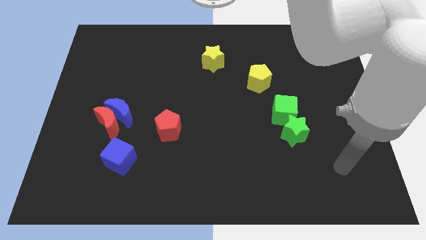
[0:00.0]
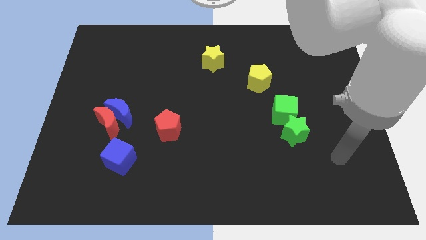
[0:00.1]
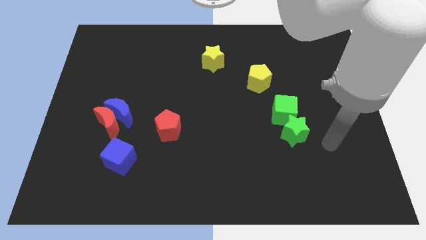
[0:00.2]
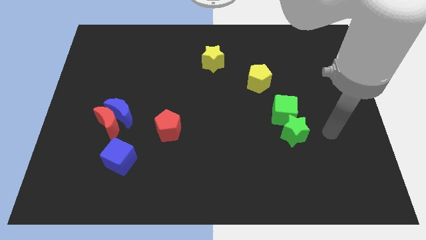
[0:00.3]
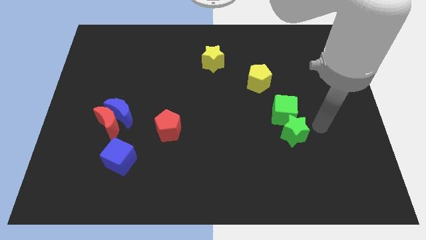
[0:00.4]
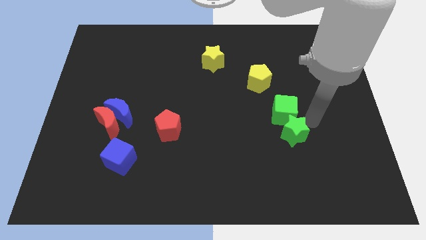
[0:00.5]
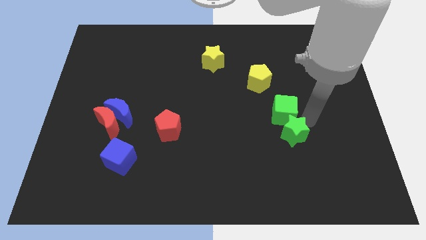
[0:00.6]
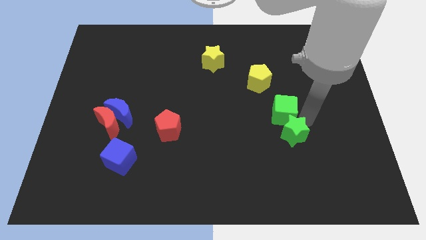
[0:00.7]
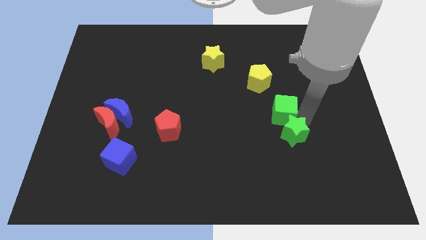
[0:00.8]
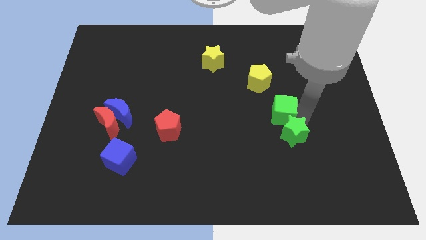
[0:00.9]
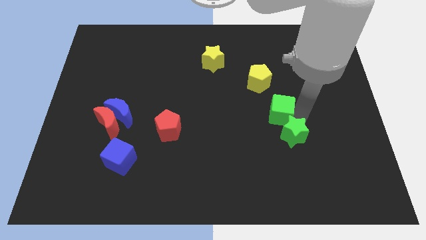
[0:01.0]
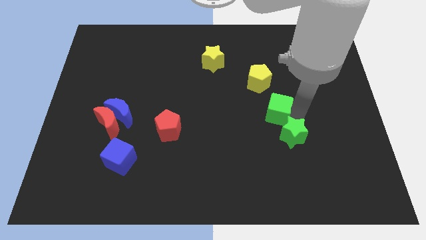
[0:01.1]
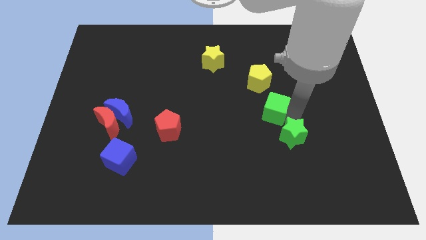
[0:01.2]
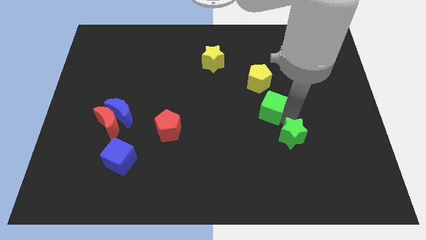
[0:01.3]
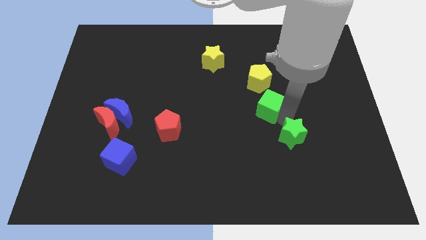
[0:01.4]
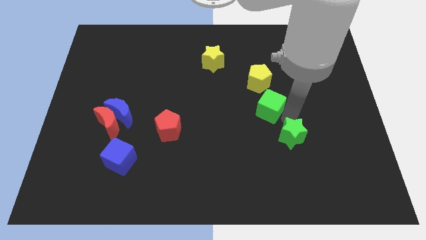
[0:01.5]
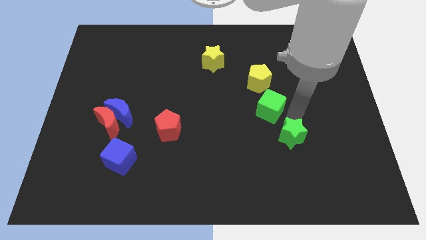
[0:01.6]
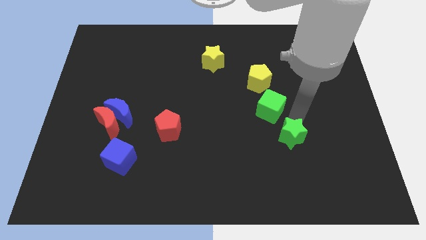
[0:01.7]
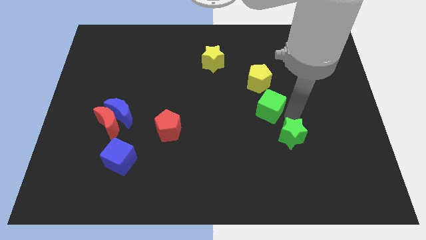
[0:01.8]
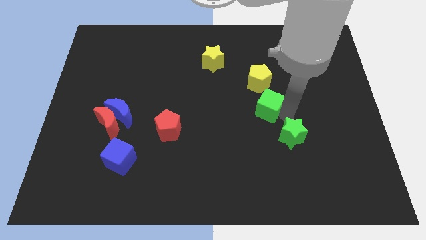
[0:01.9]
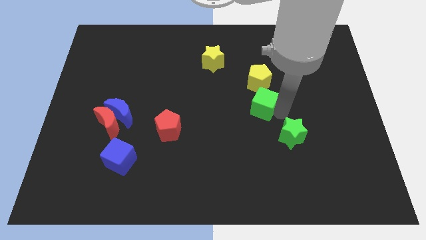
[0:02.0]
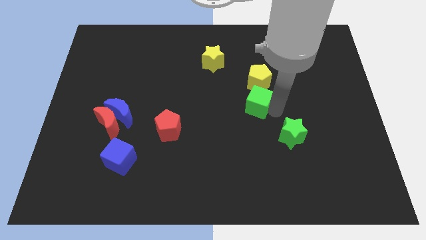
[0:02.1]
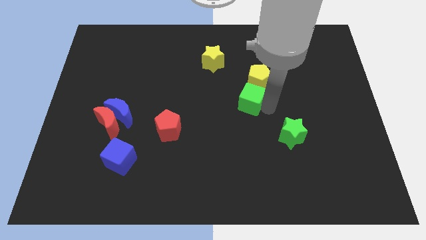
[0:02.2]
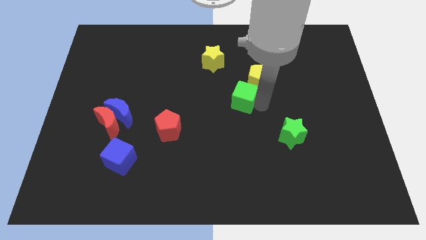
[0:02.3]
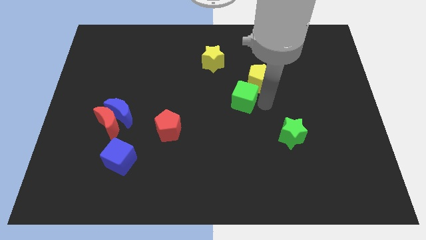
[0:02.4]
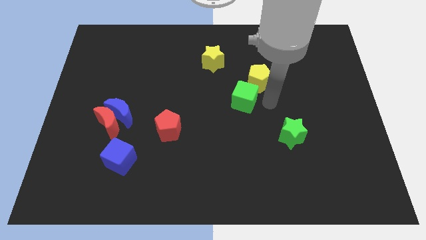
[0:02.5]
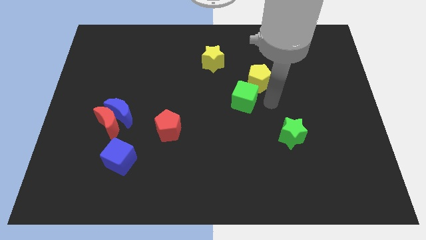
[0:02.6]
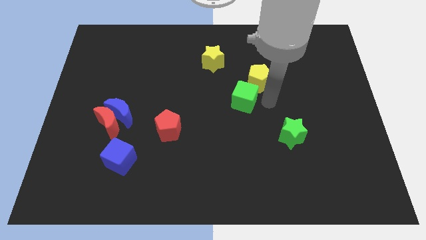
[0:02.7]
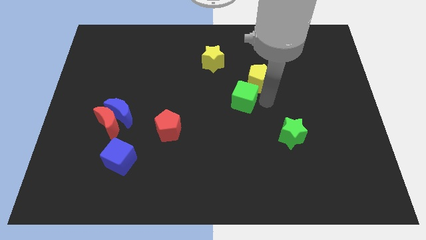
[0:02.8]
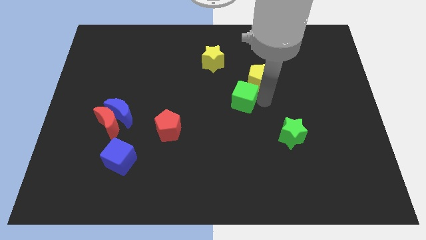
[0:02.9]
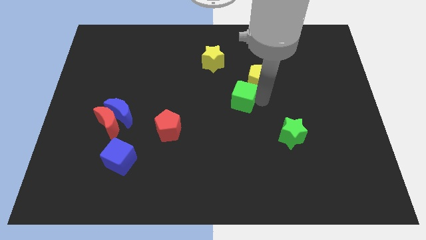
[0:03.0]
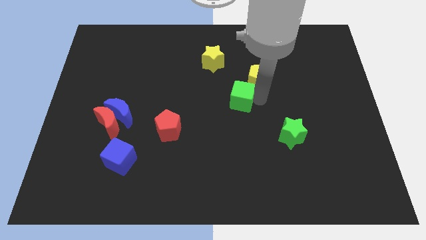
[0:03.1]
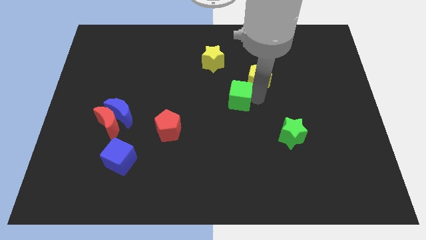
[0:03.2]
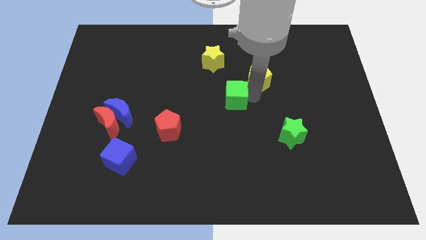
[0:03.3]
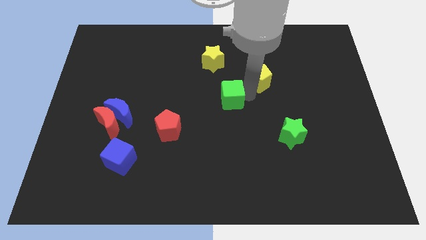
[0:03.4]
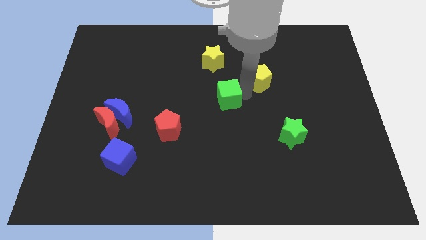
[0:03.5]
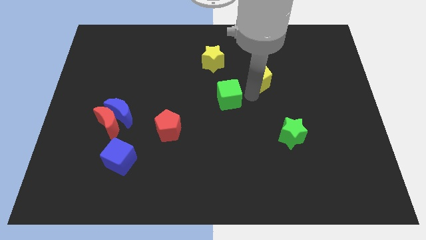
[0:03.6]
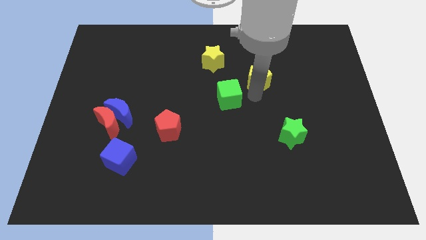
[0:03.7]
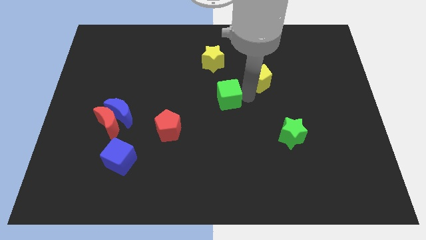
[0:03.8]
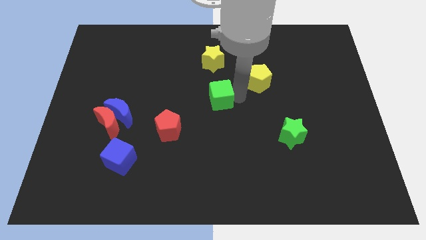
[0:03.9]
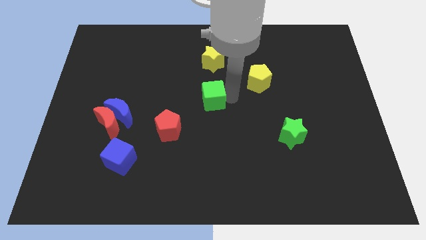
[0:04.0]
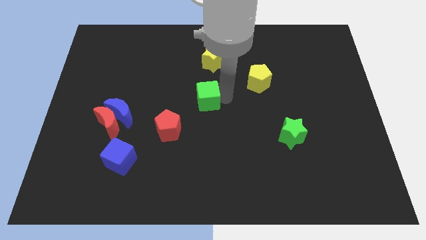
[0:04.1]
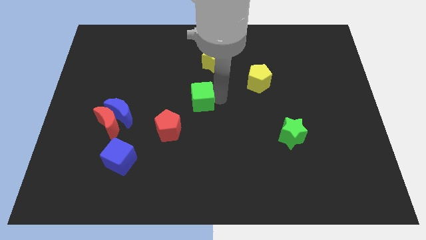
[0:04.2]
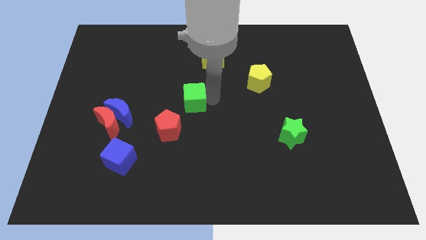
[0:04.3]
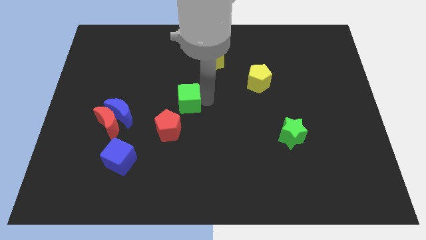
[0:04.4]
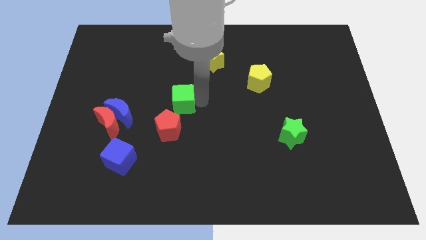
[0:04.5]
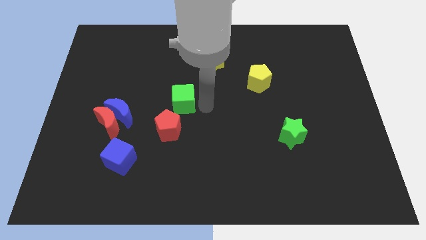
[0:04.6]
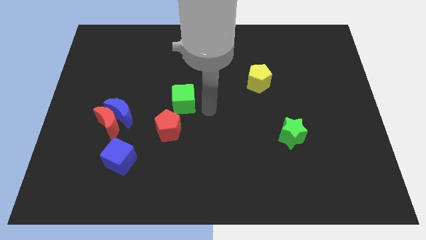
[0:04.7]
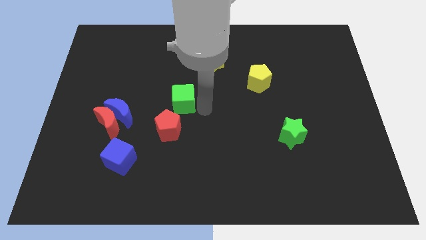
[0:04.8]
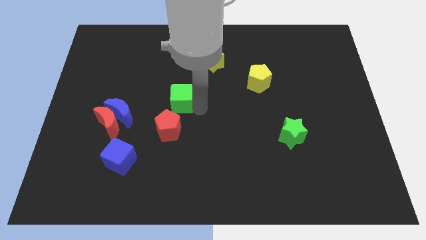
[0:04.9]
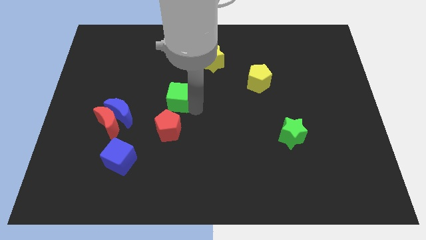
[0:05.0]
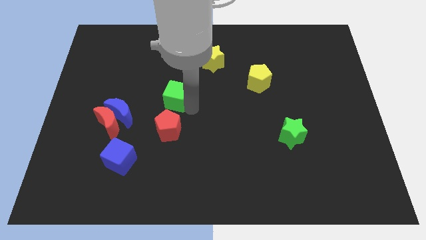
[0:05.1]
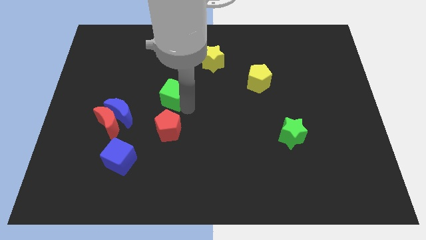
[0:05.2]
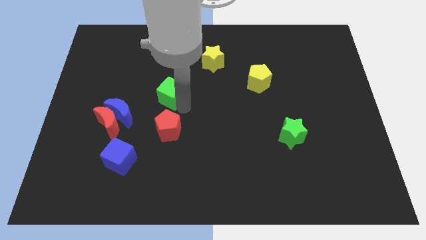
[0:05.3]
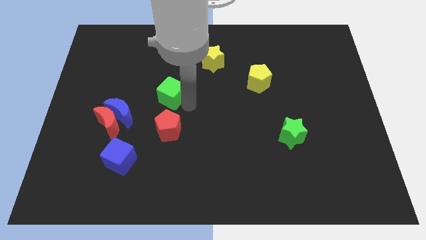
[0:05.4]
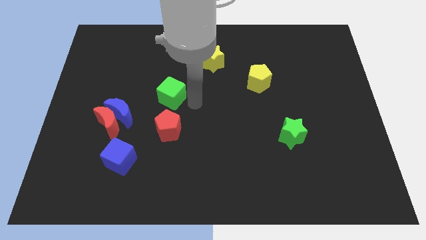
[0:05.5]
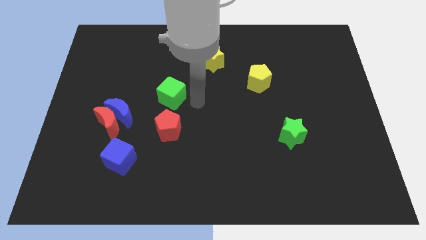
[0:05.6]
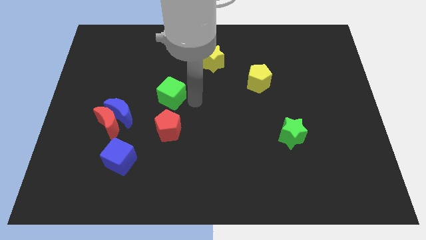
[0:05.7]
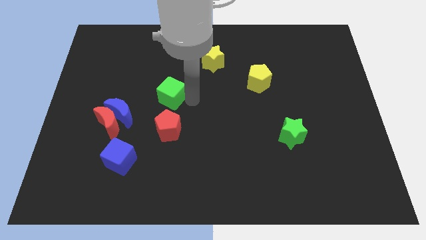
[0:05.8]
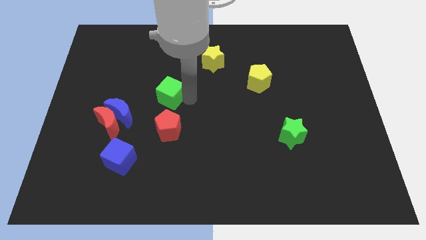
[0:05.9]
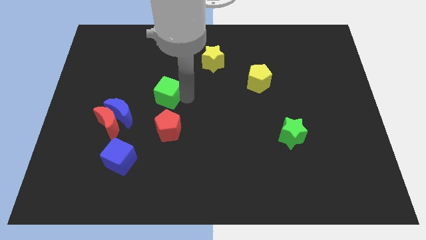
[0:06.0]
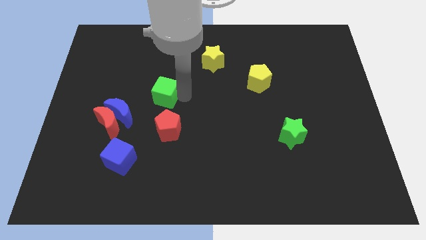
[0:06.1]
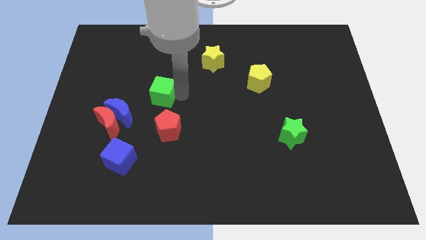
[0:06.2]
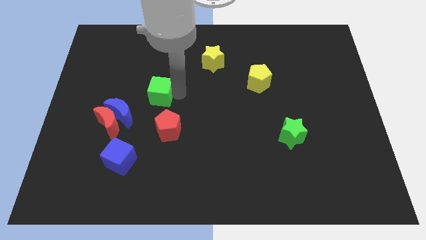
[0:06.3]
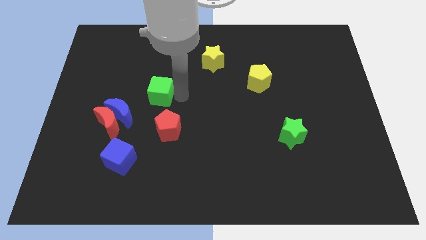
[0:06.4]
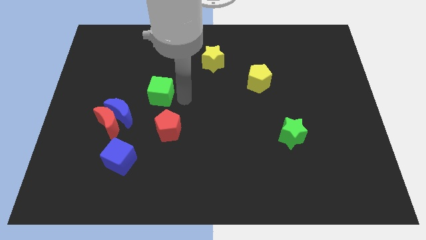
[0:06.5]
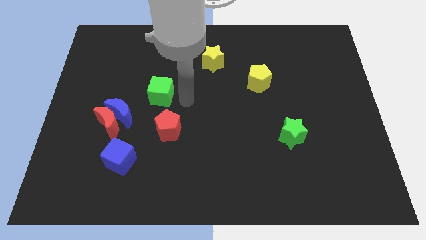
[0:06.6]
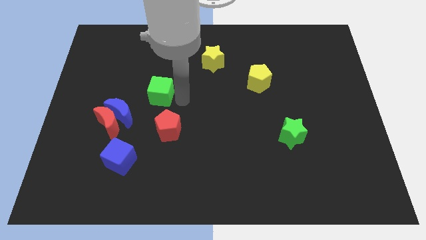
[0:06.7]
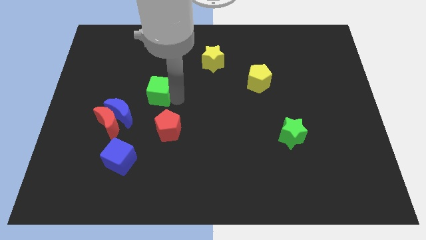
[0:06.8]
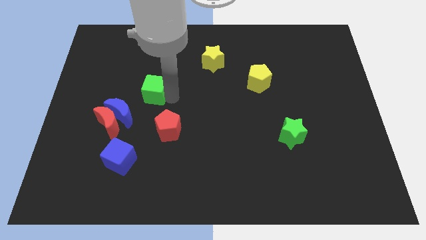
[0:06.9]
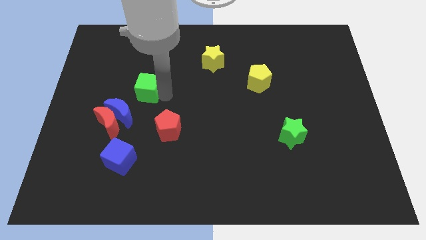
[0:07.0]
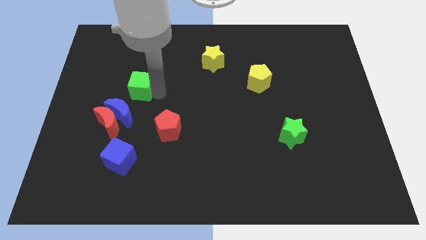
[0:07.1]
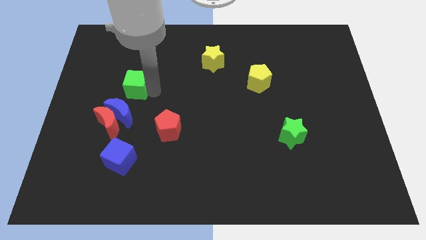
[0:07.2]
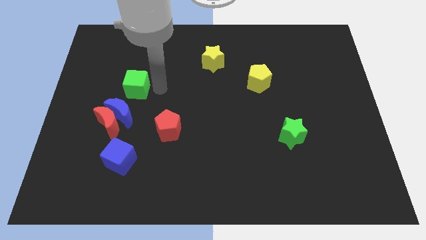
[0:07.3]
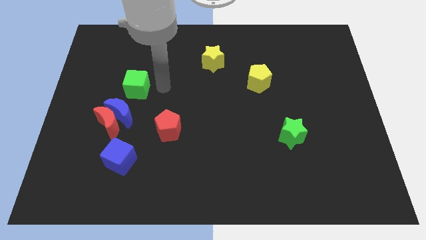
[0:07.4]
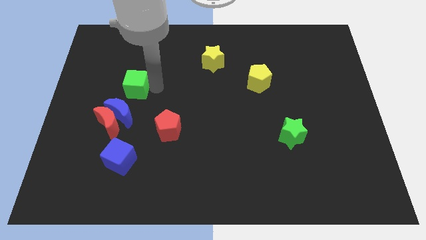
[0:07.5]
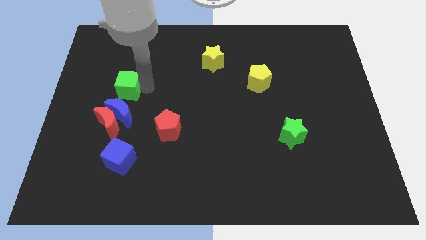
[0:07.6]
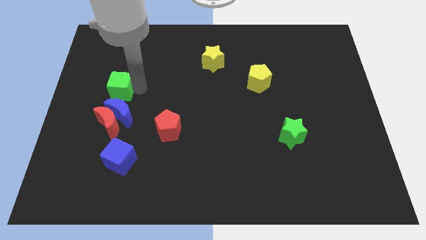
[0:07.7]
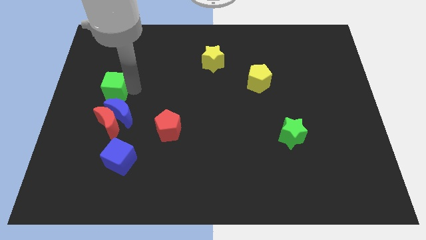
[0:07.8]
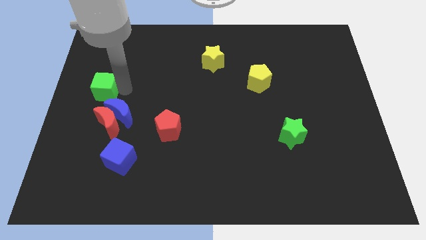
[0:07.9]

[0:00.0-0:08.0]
slide the green cube to the left side
